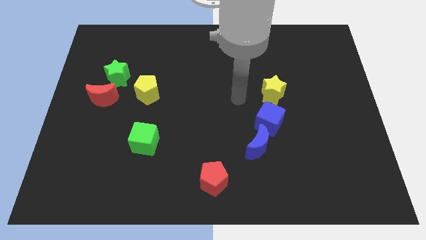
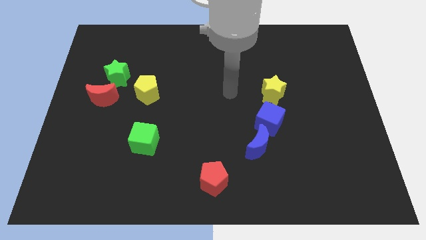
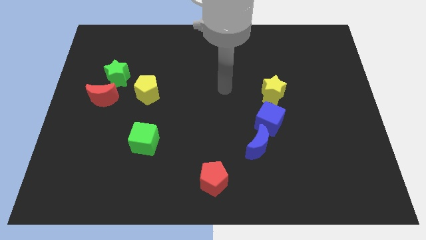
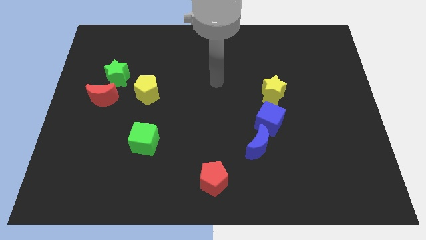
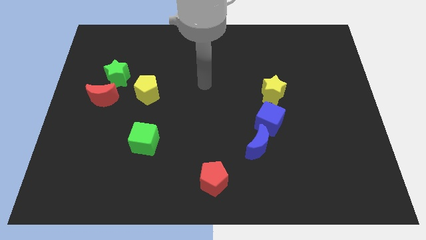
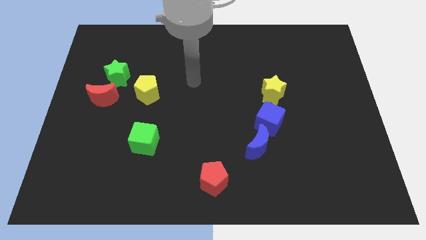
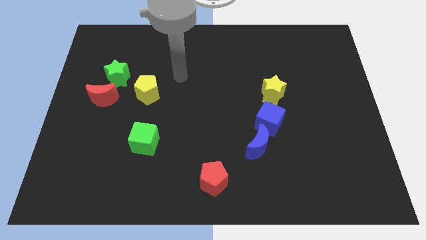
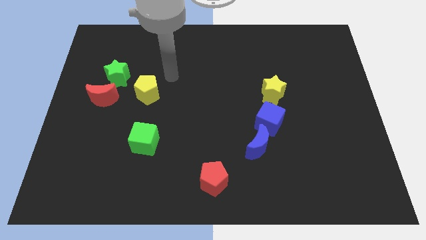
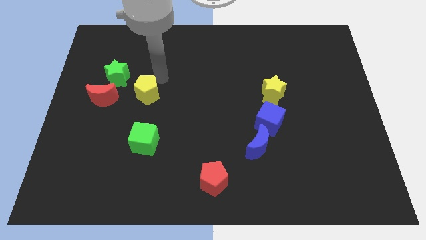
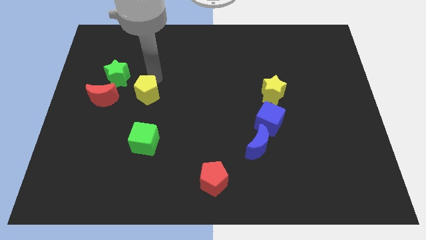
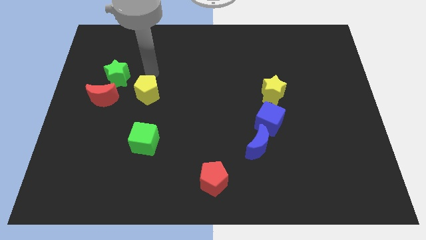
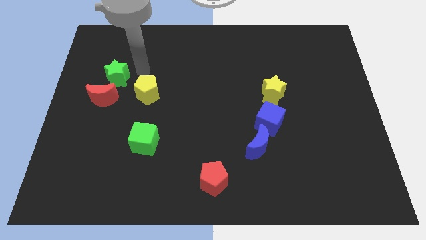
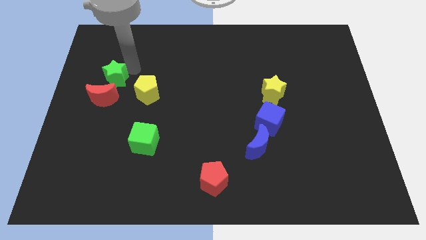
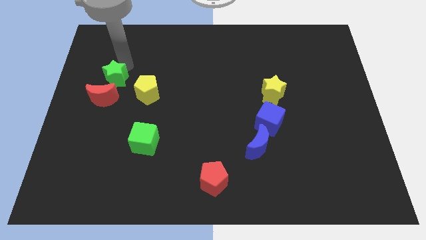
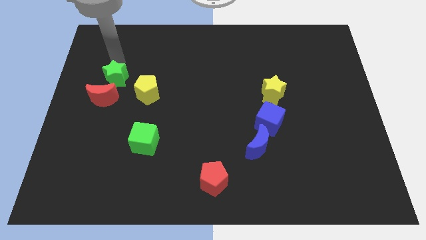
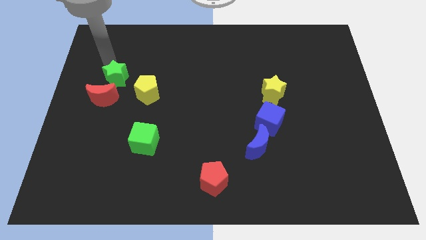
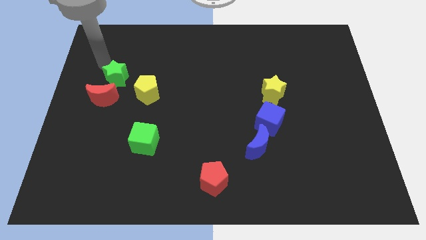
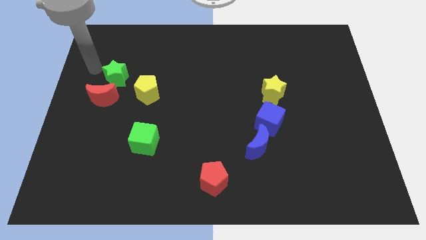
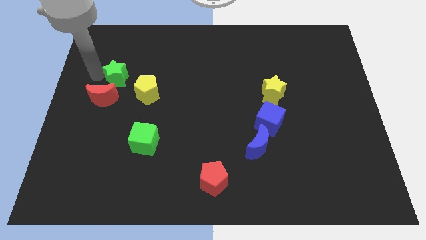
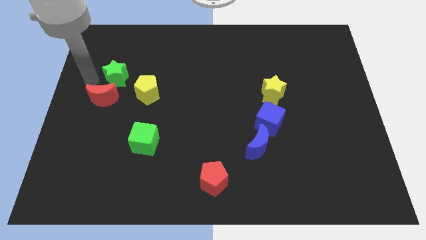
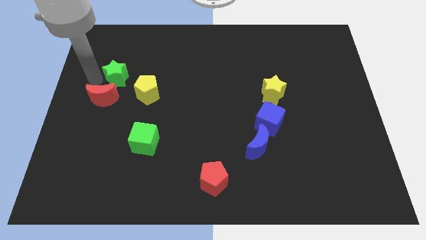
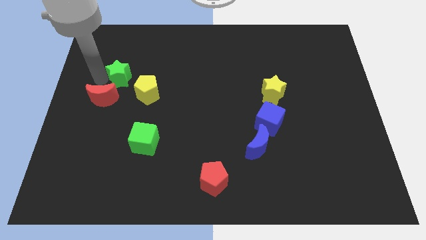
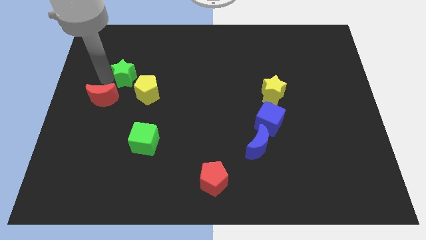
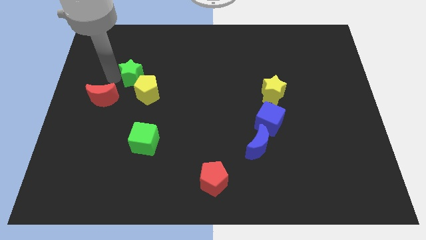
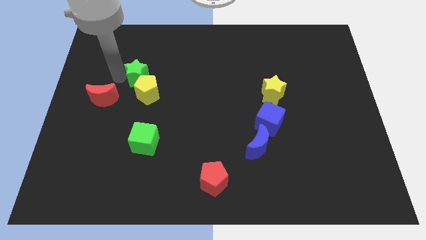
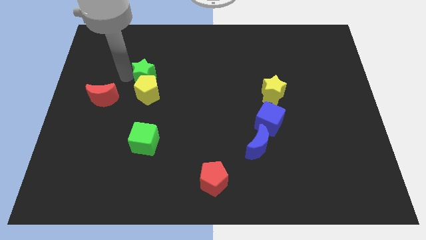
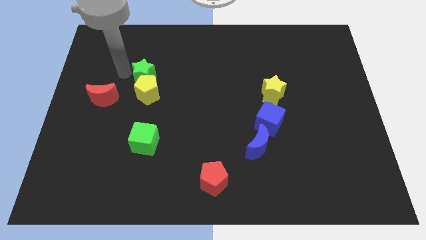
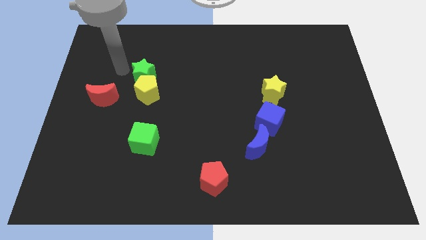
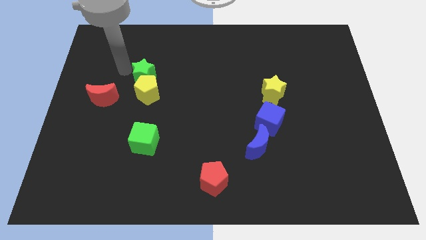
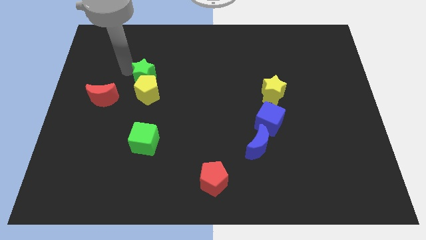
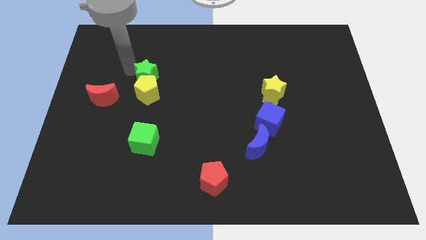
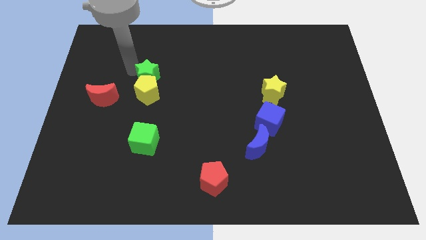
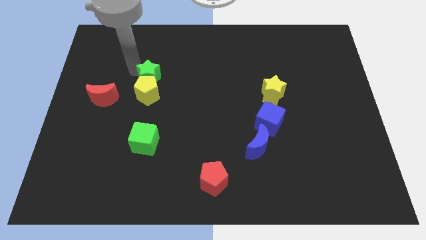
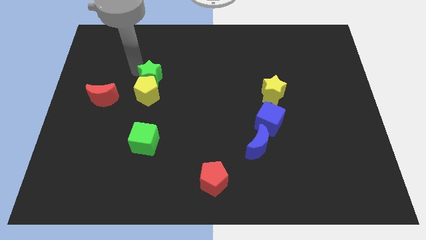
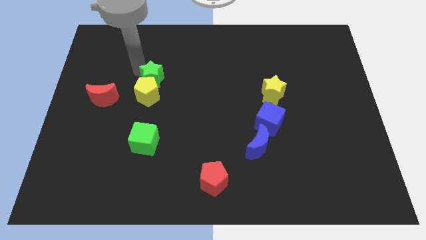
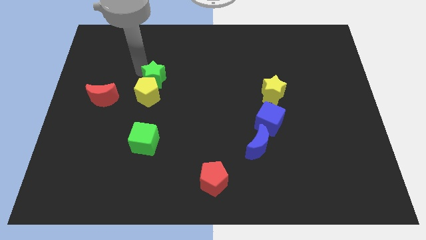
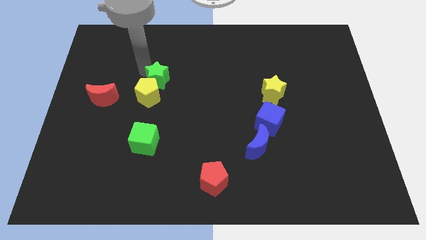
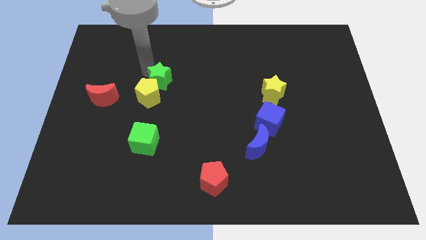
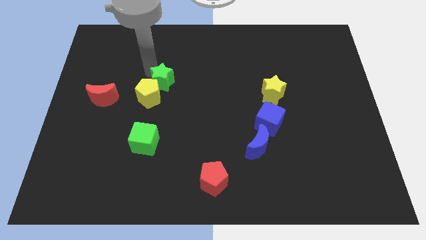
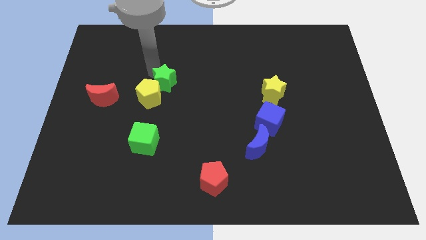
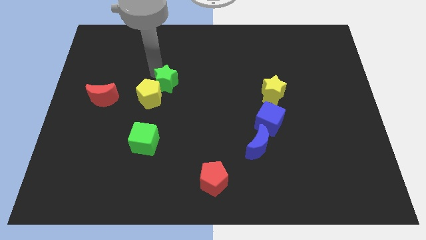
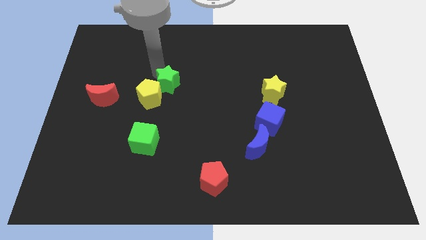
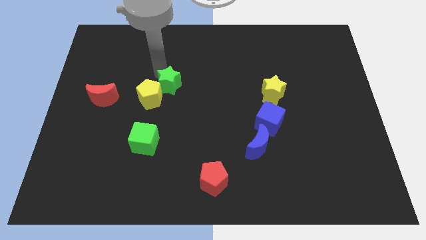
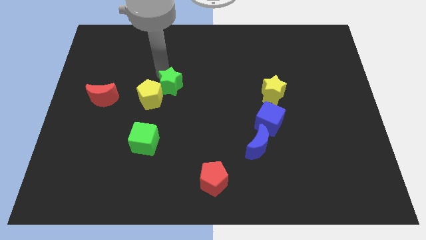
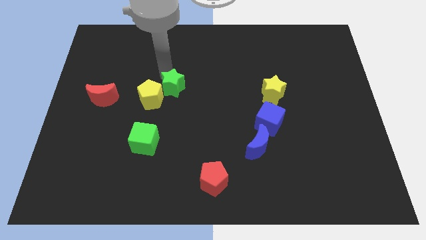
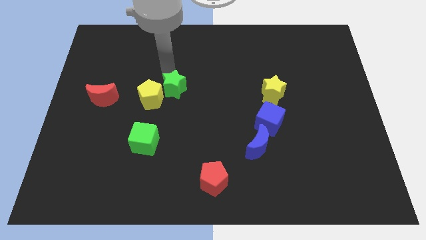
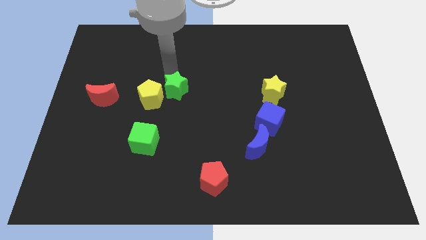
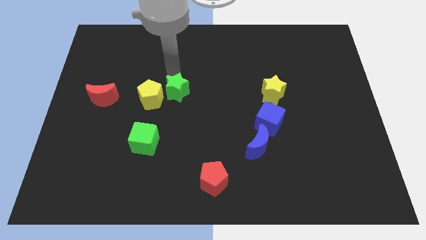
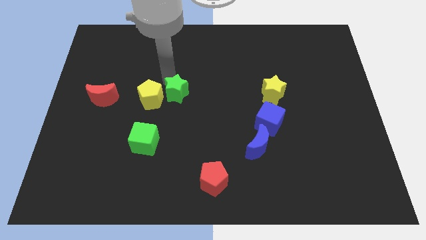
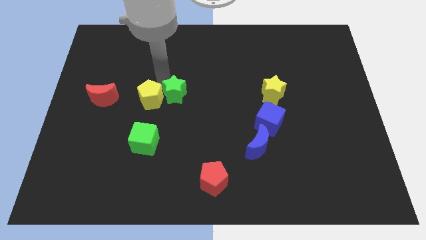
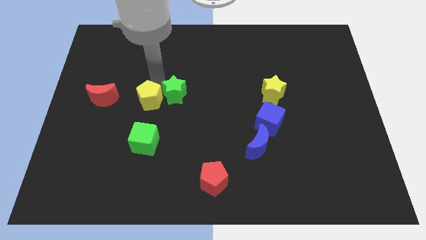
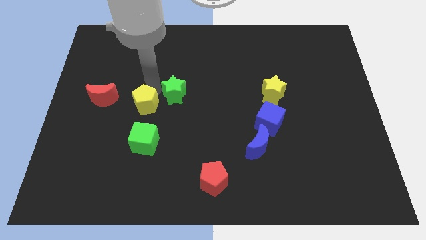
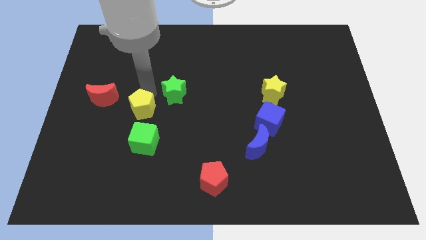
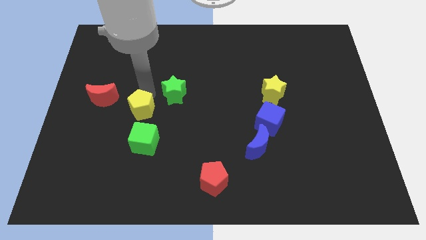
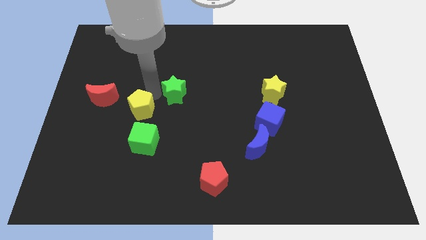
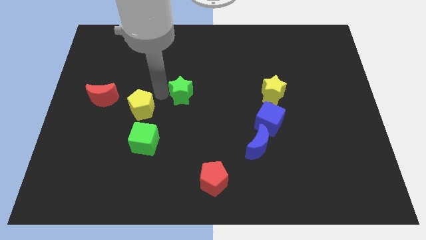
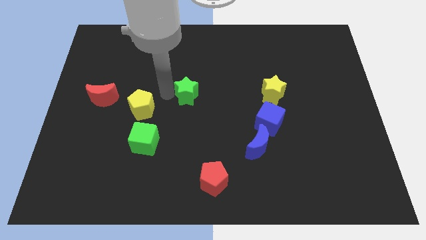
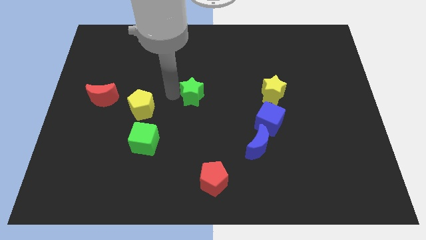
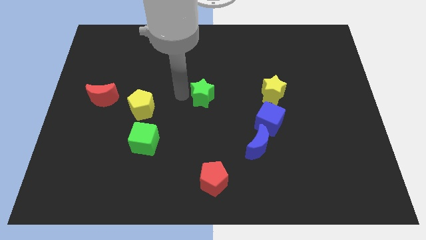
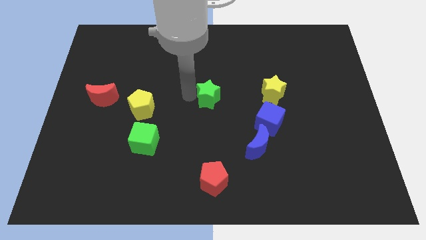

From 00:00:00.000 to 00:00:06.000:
slide the green star just left of the yellow star

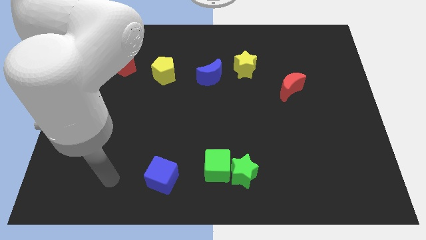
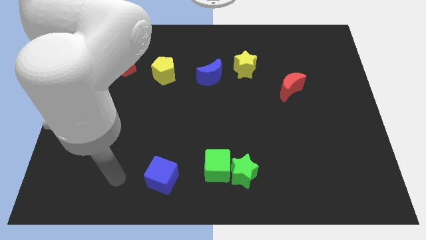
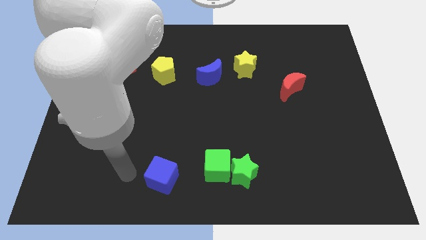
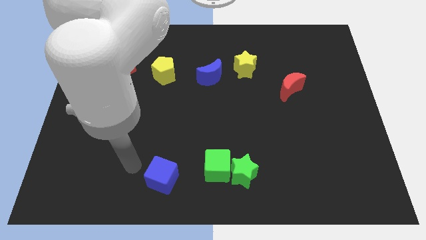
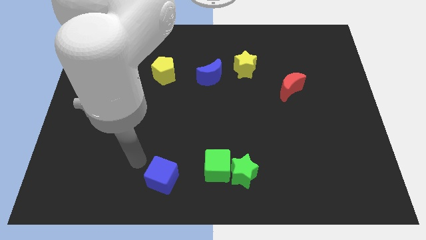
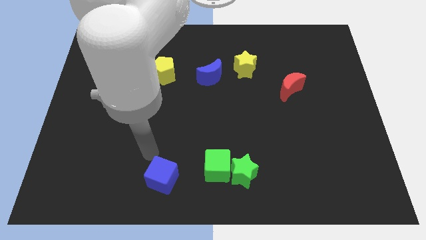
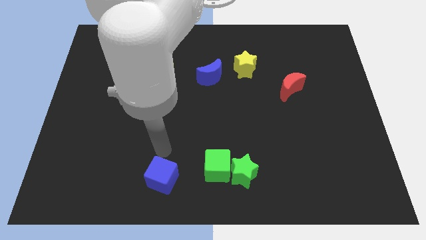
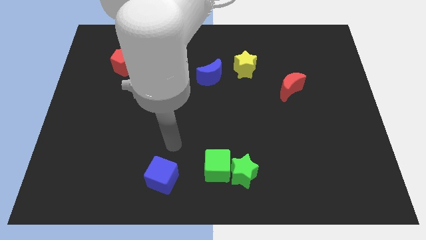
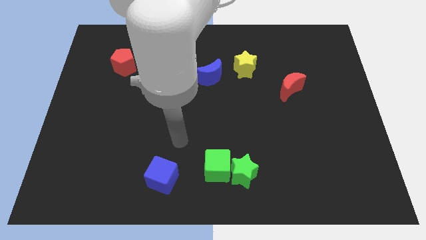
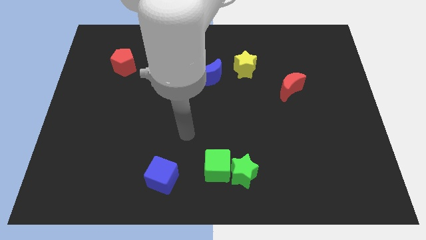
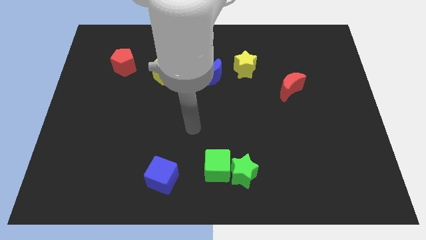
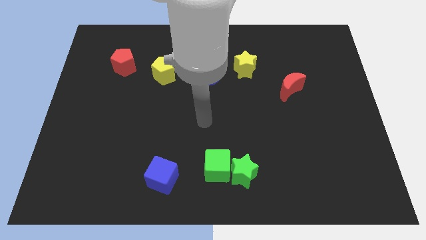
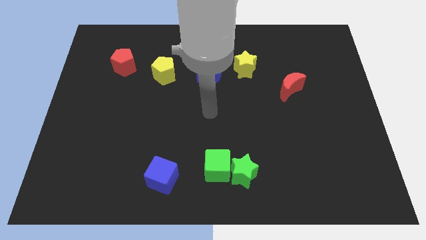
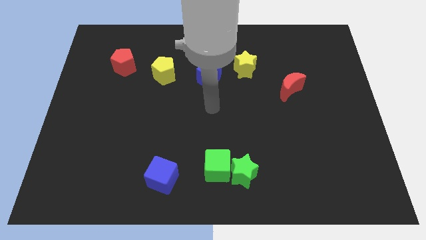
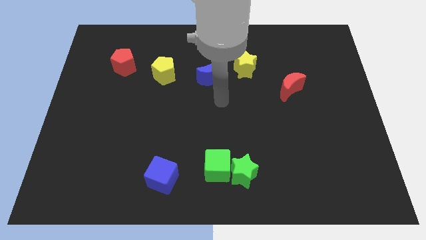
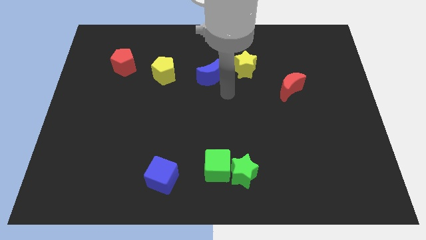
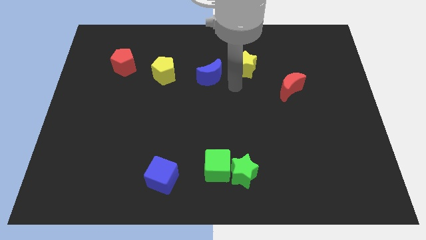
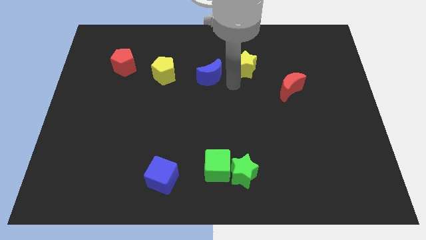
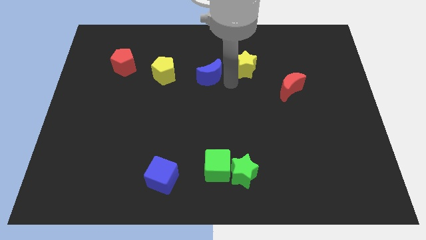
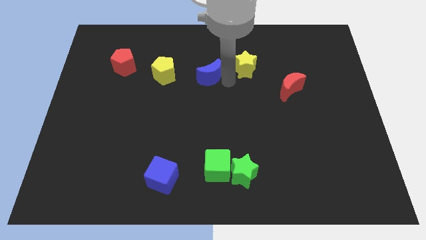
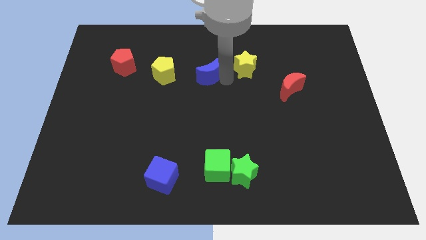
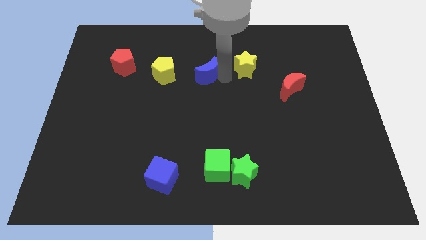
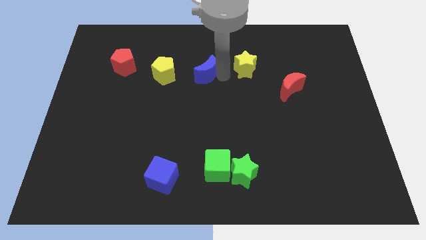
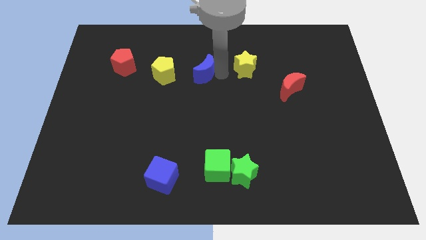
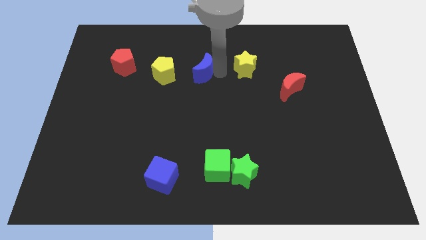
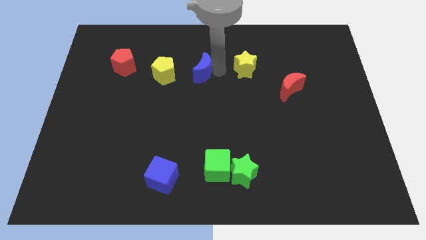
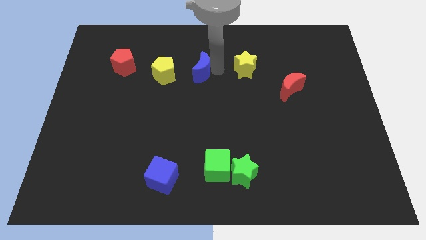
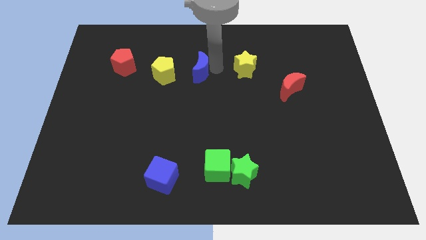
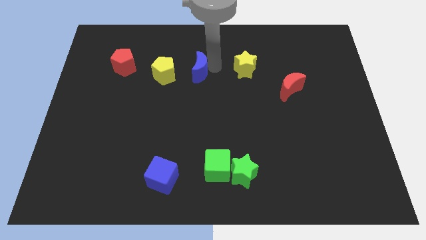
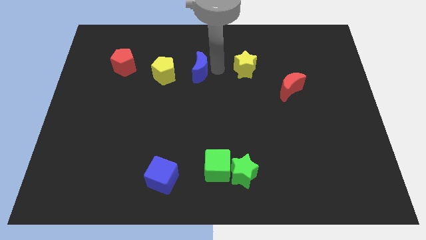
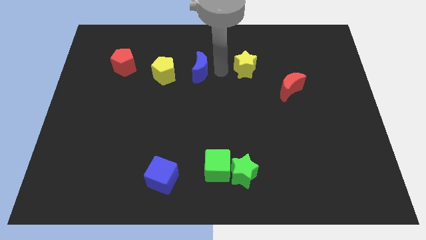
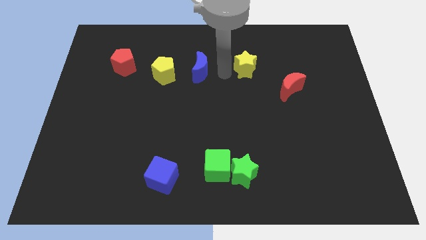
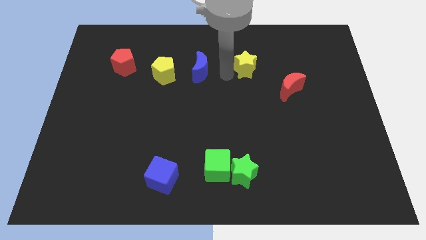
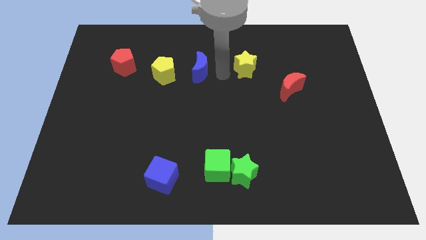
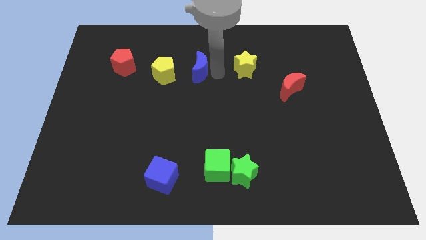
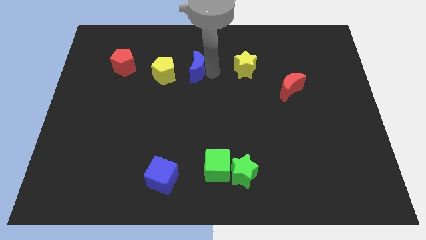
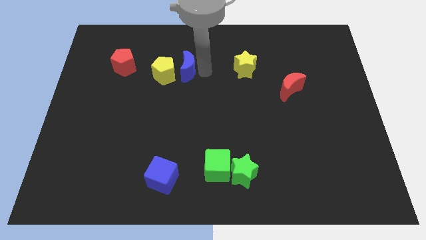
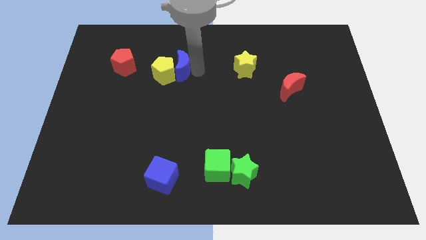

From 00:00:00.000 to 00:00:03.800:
slide the blue moon just right of the red pentagon
